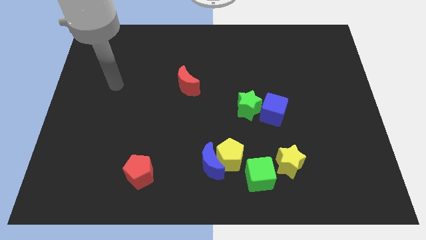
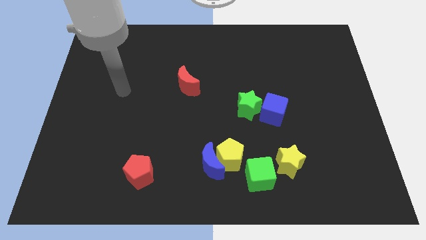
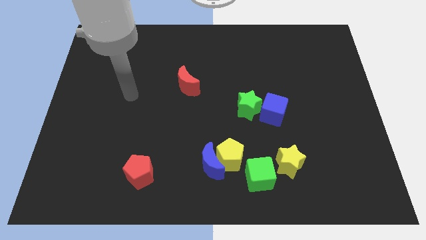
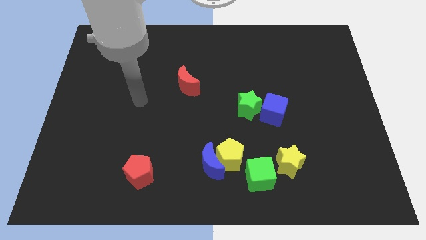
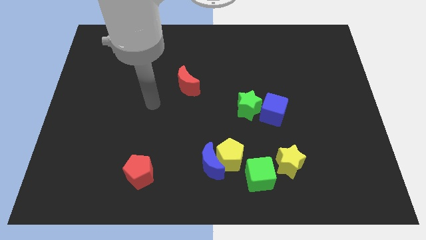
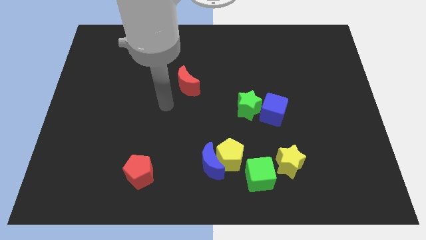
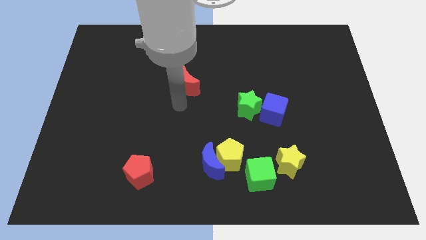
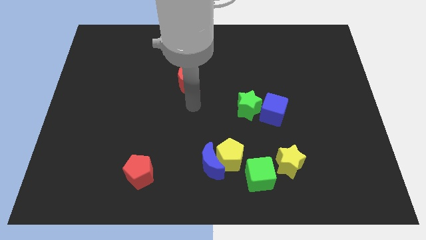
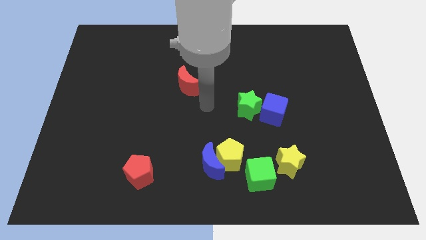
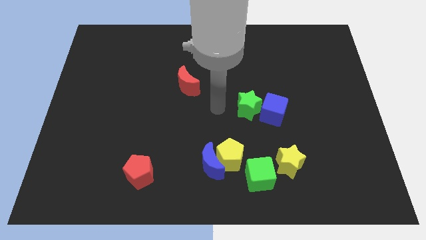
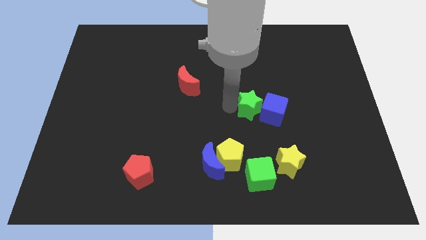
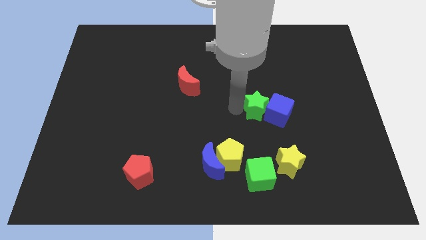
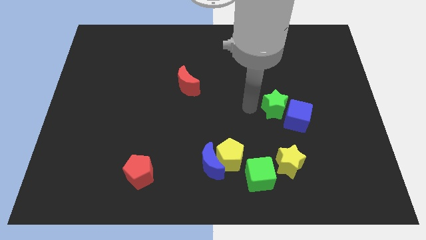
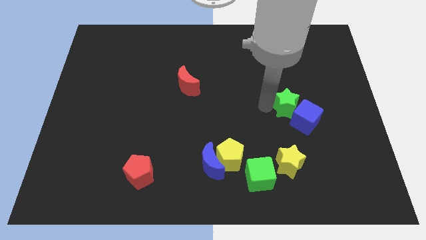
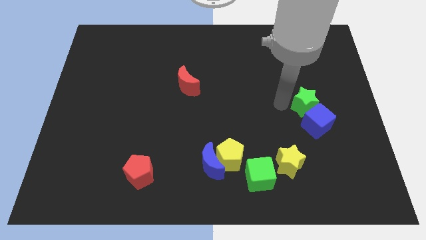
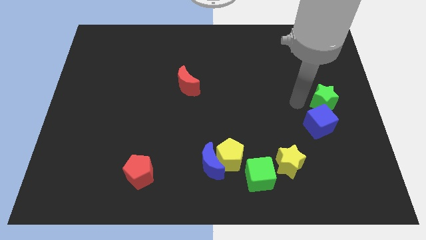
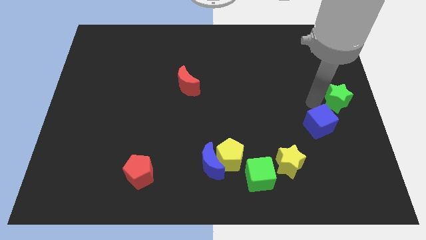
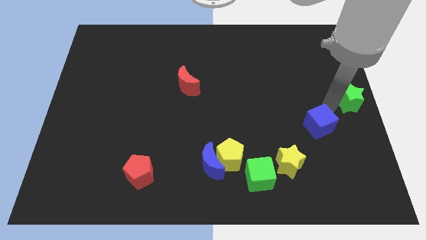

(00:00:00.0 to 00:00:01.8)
separate the blue cube from the green star

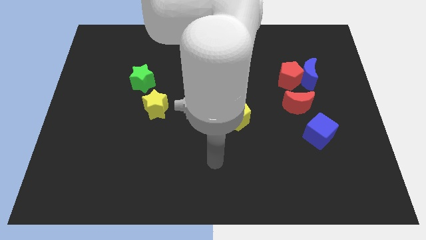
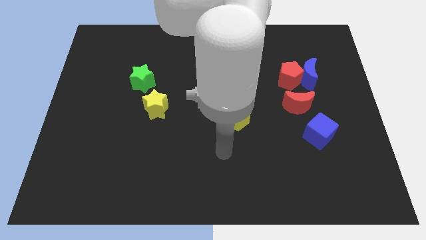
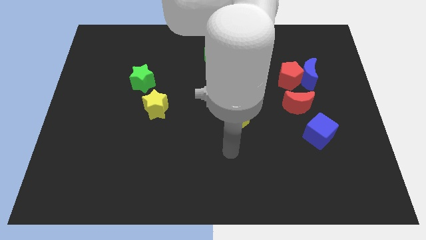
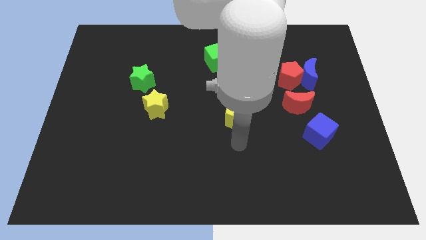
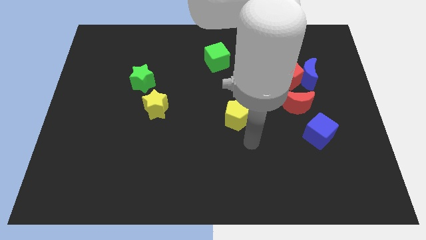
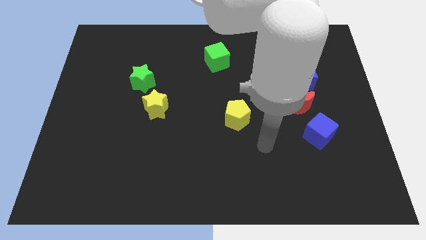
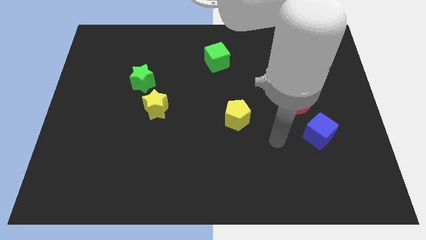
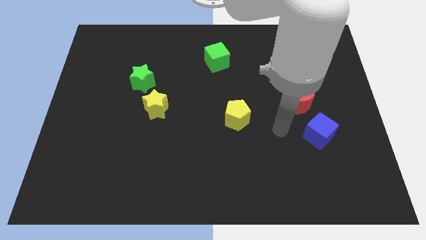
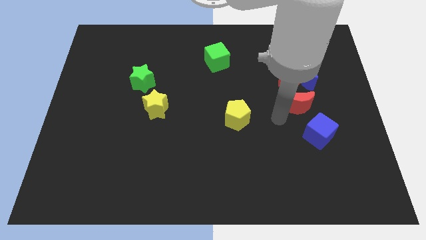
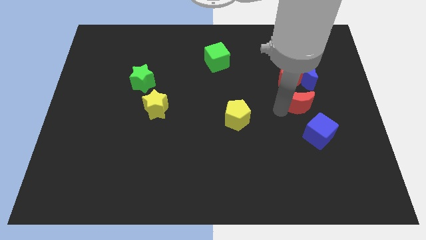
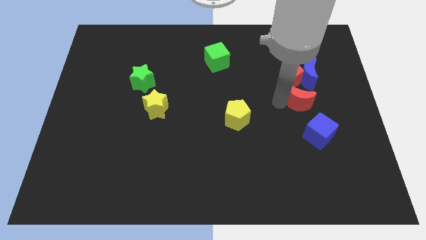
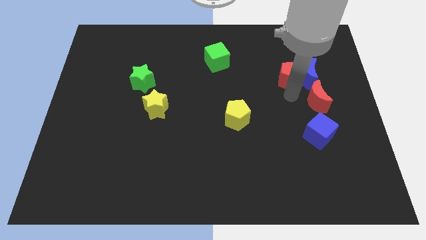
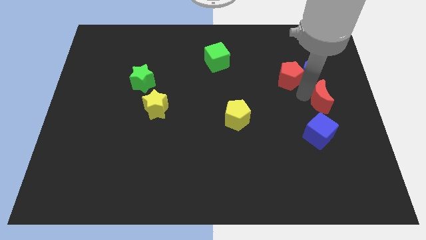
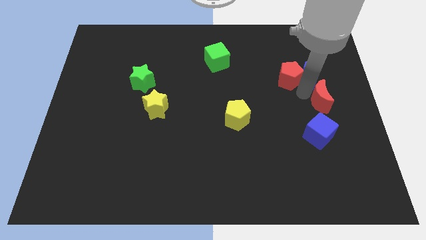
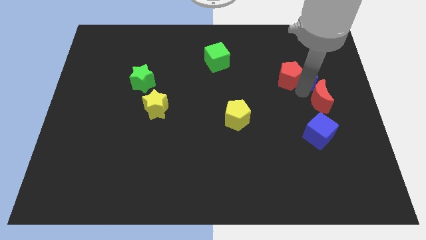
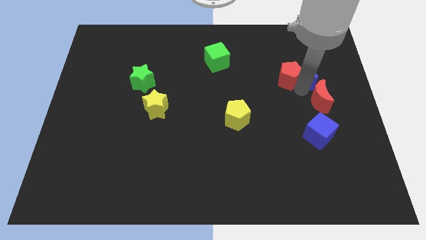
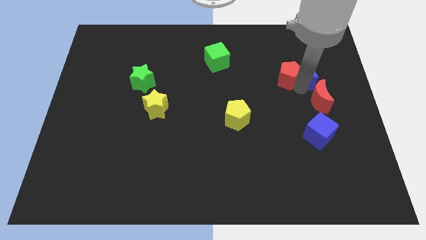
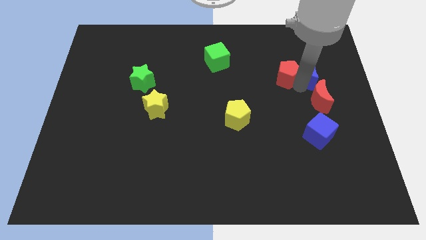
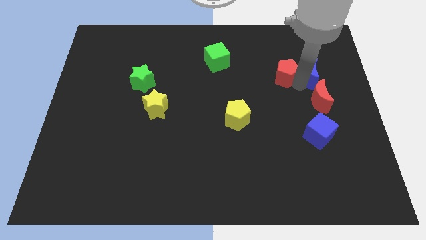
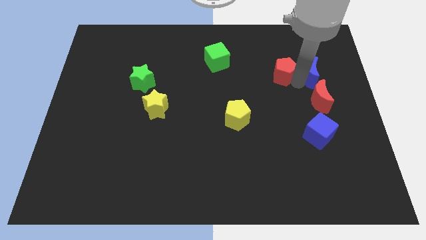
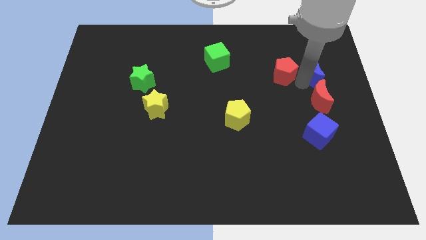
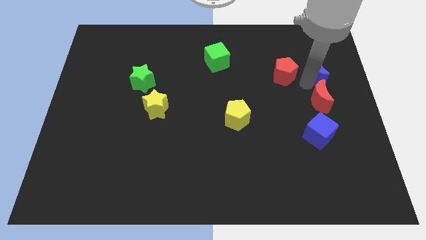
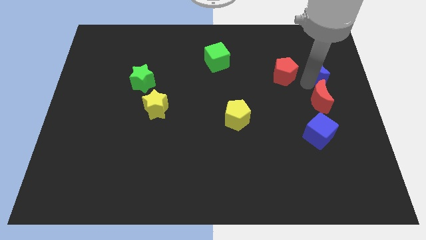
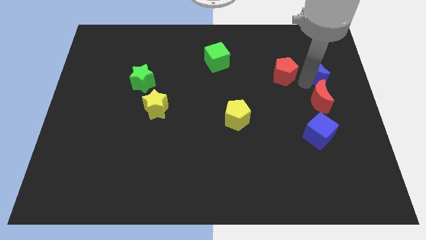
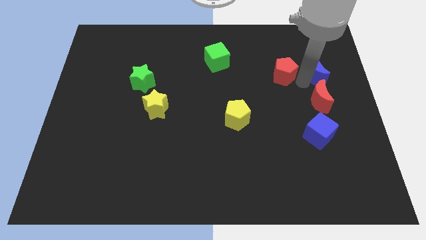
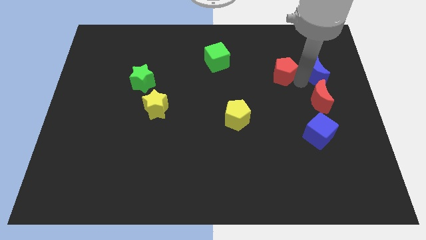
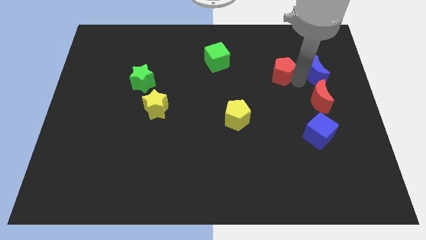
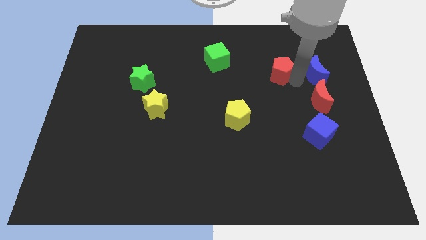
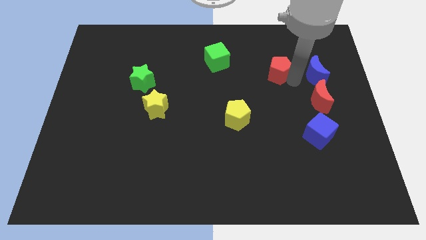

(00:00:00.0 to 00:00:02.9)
pull the red pentagon apart from the blue moon and red moon

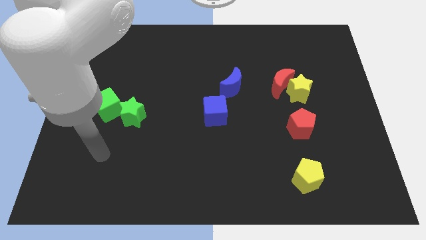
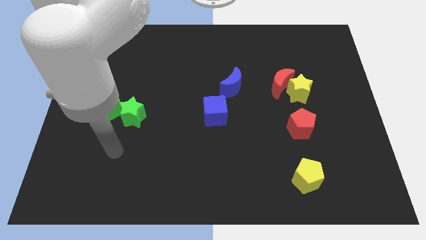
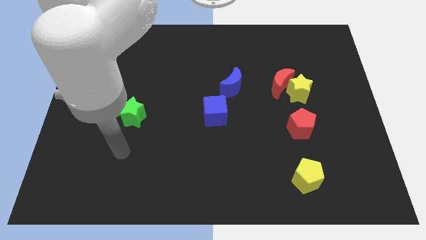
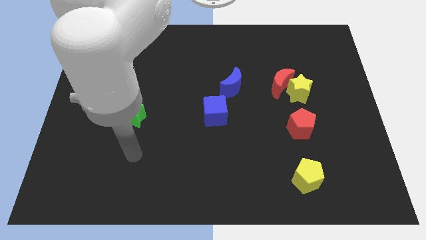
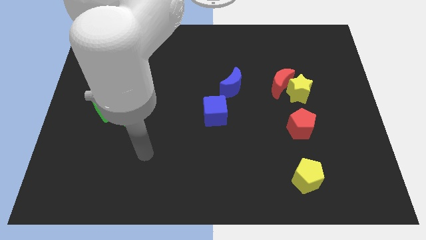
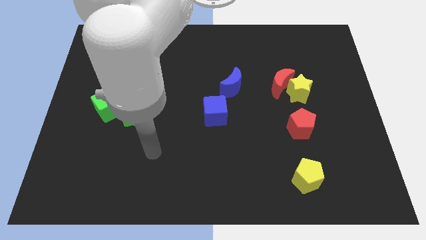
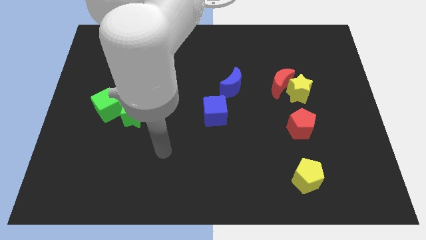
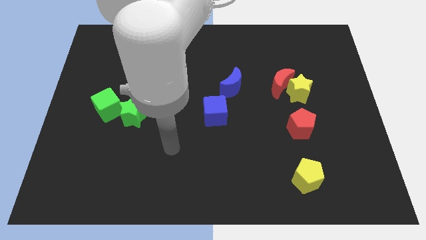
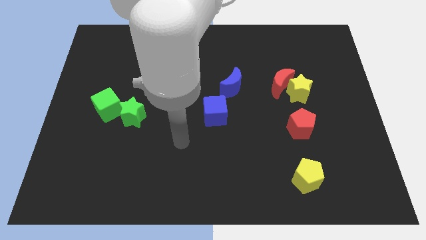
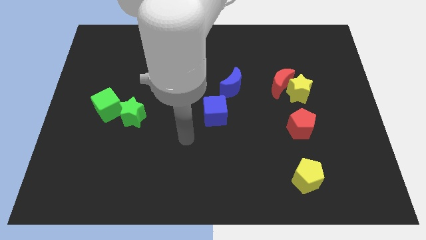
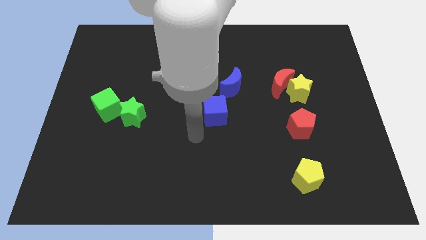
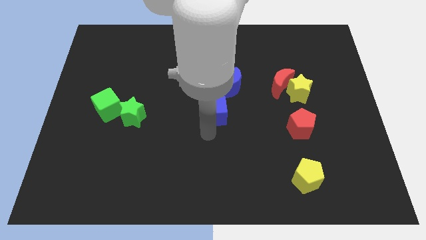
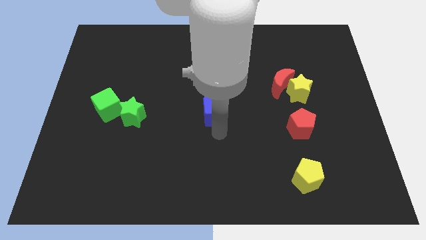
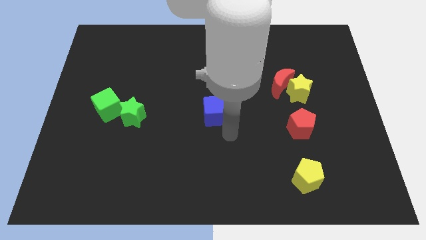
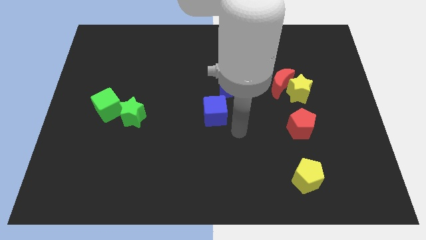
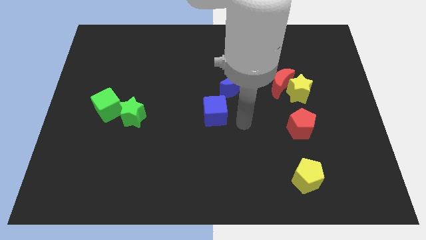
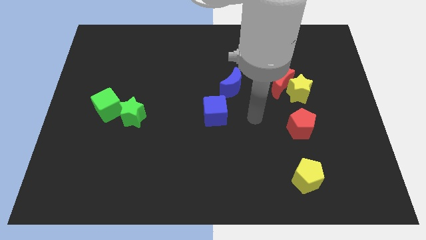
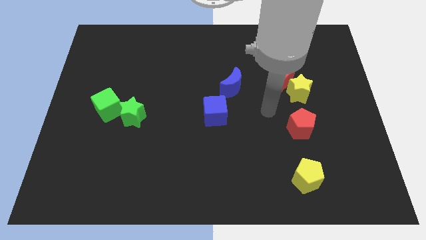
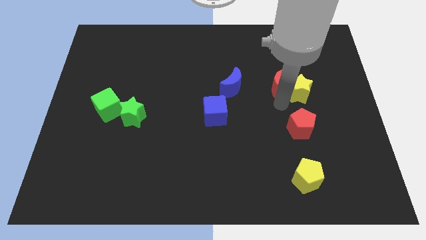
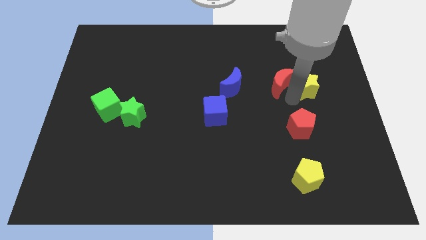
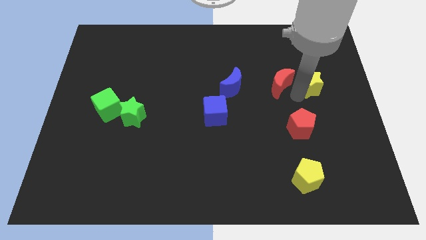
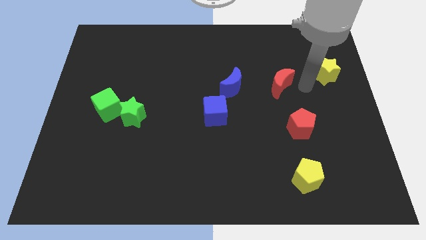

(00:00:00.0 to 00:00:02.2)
separate the red moon from the yellow star

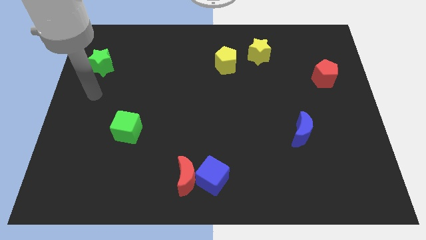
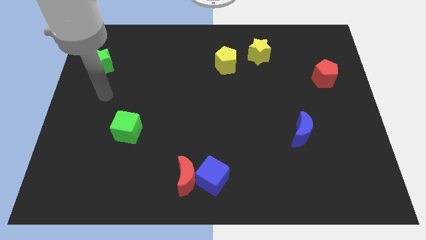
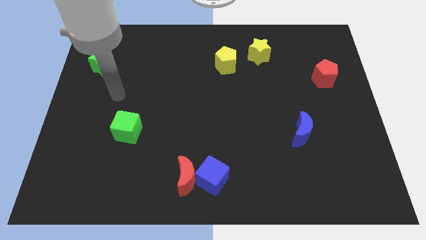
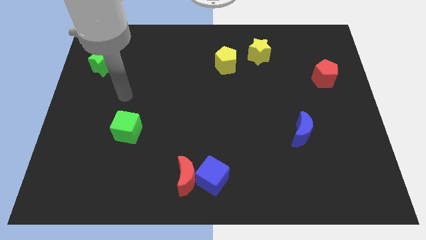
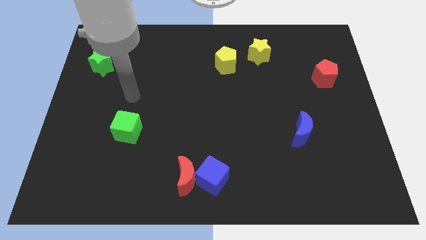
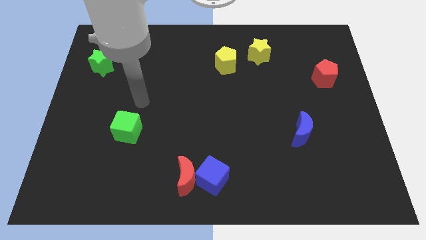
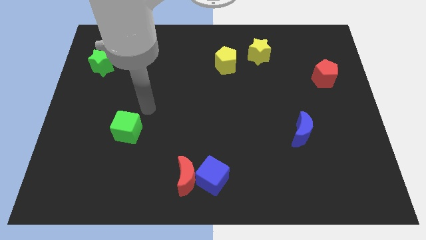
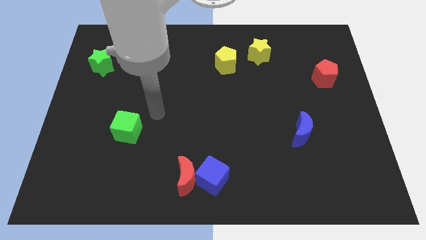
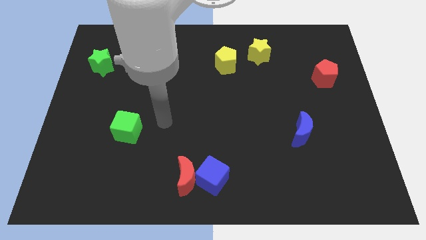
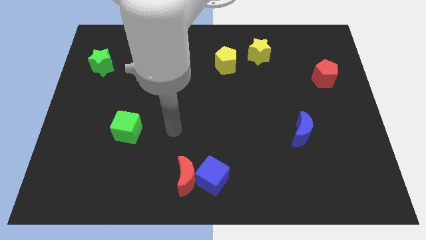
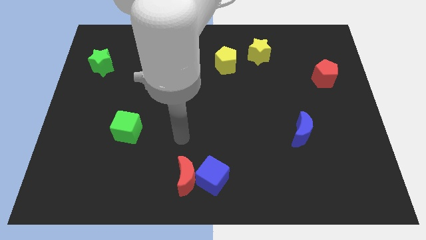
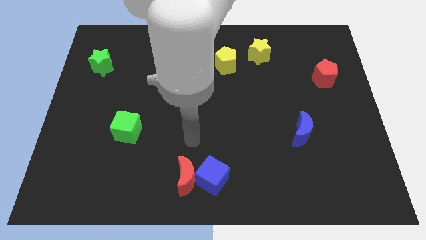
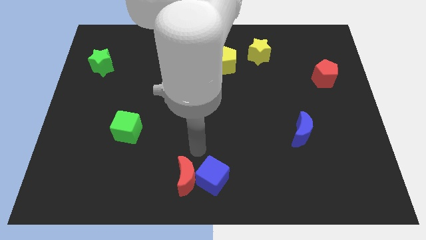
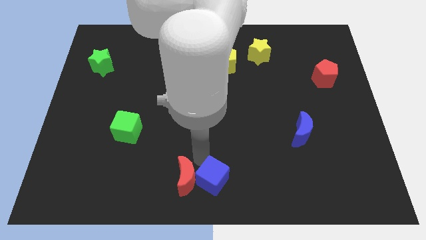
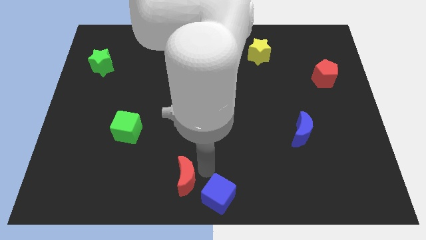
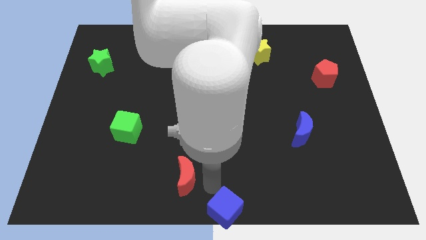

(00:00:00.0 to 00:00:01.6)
separate the red moon from the blue cube

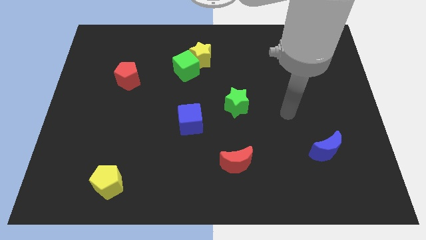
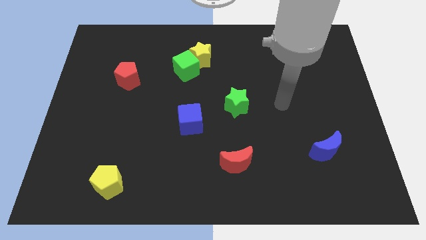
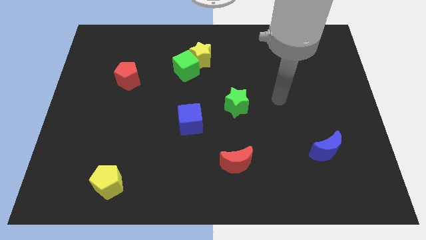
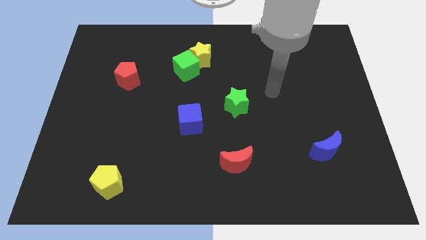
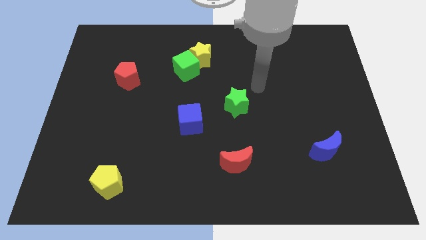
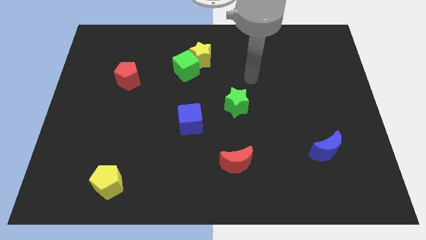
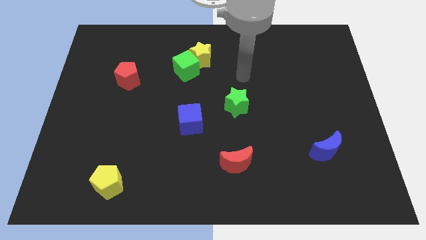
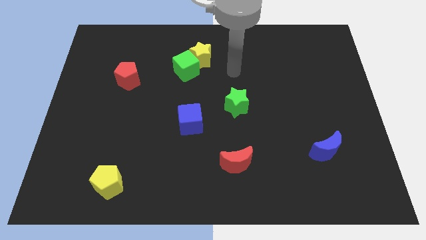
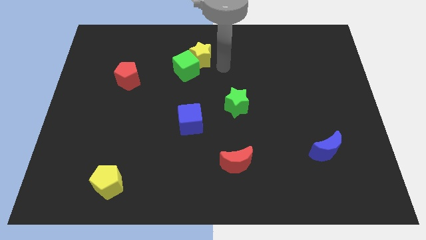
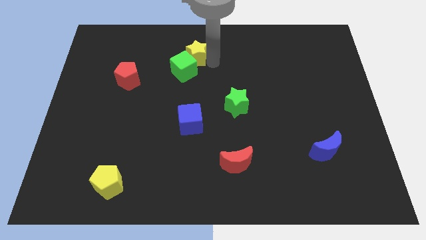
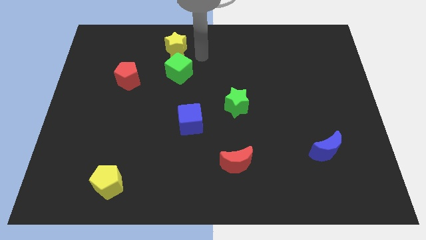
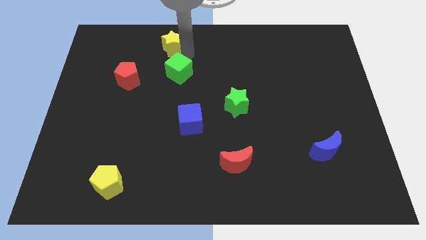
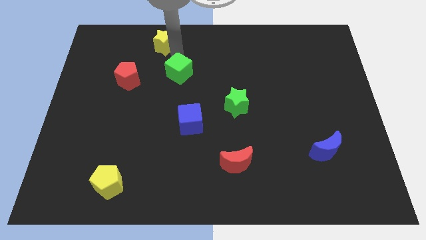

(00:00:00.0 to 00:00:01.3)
move the green cube away from the yellow star
